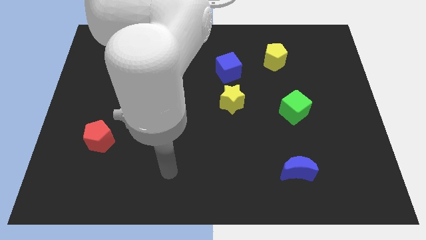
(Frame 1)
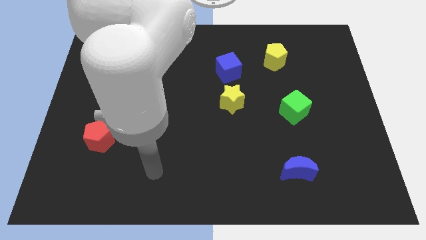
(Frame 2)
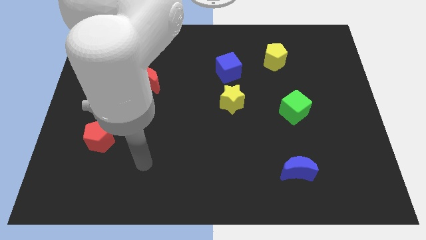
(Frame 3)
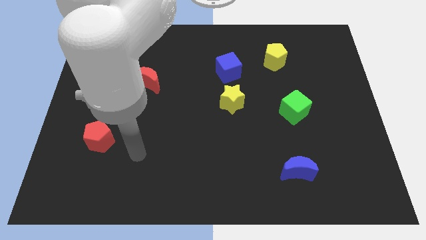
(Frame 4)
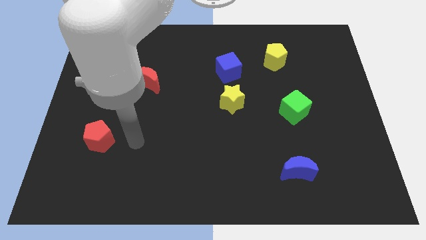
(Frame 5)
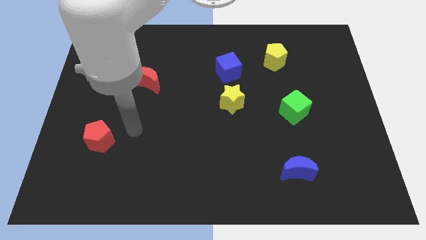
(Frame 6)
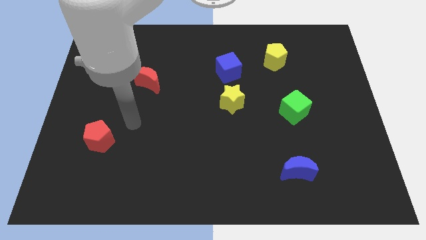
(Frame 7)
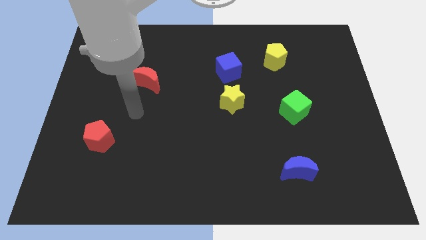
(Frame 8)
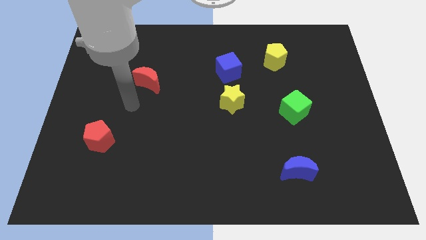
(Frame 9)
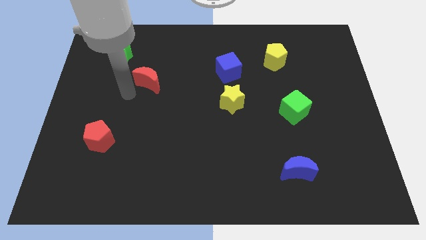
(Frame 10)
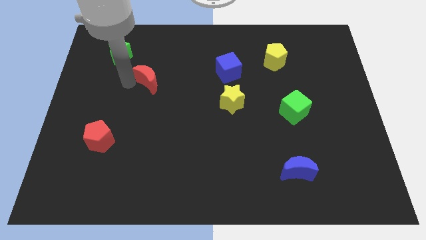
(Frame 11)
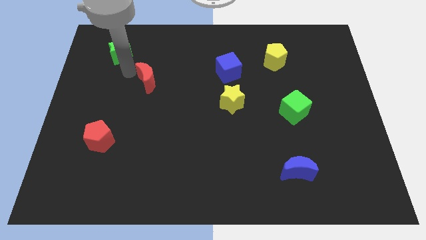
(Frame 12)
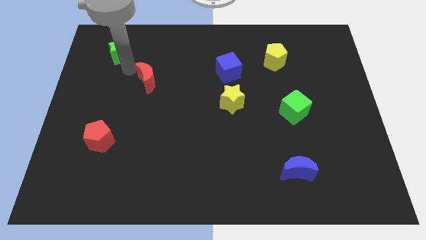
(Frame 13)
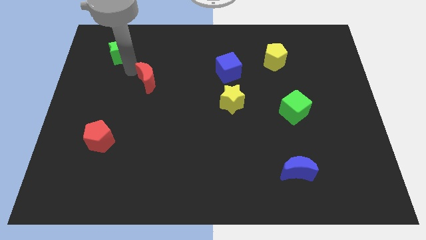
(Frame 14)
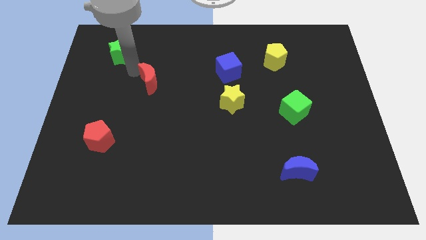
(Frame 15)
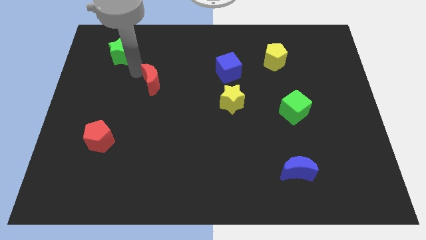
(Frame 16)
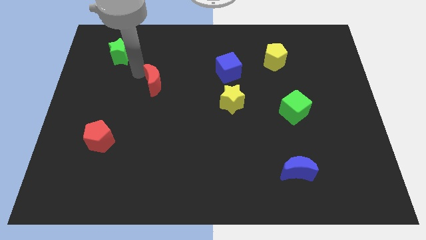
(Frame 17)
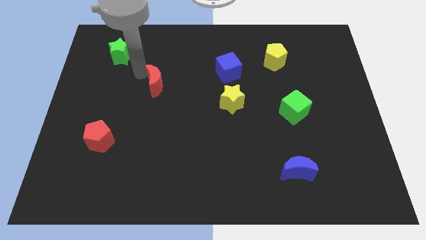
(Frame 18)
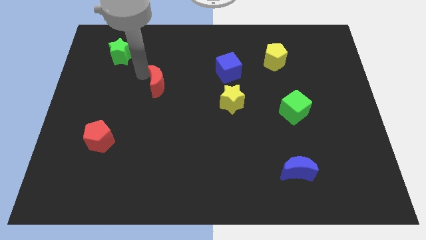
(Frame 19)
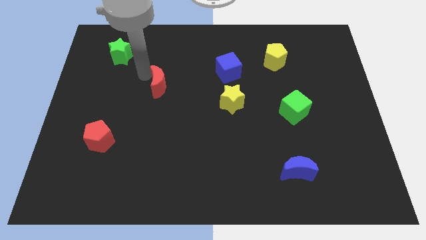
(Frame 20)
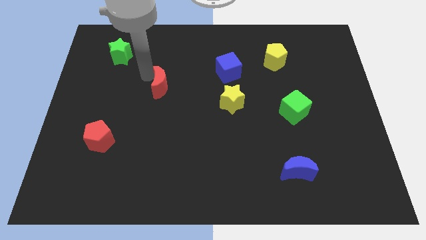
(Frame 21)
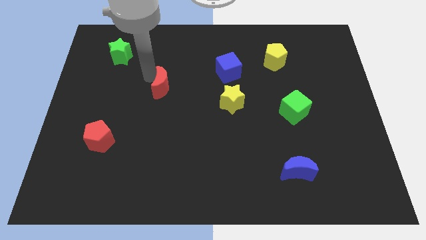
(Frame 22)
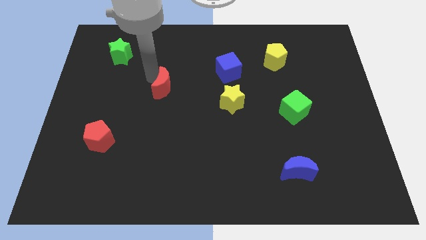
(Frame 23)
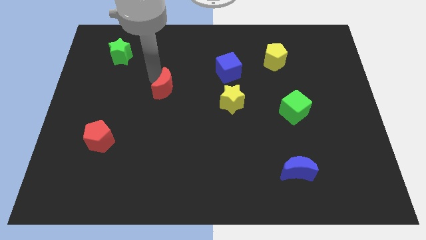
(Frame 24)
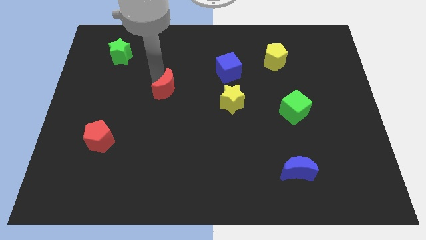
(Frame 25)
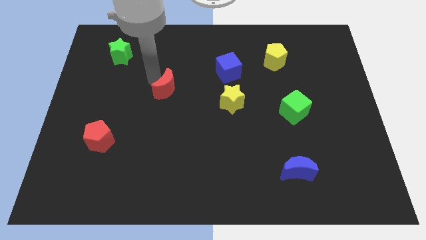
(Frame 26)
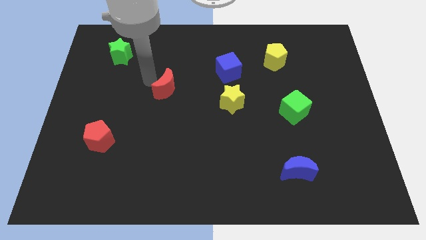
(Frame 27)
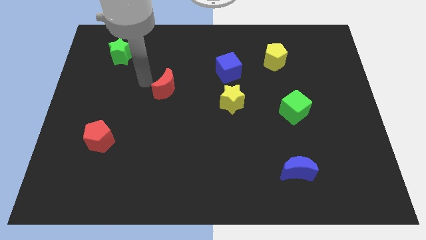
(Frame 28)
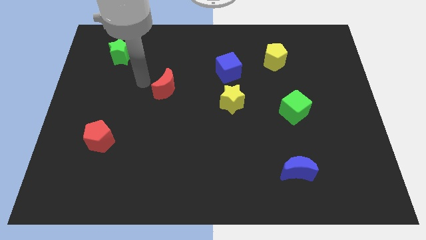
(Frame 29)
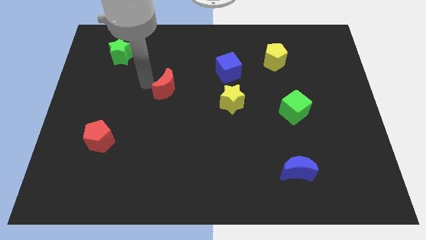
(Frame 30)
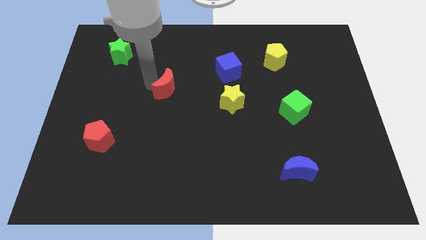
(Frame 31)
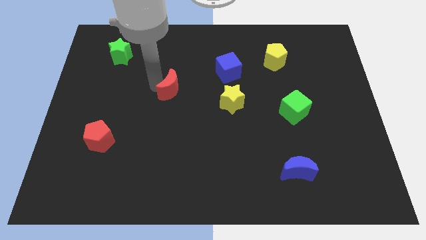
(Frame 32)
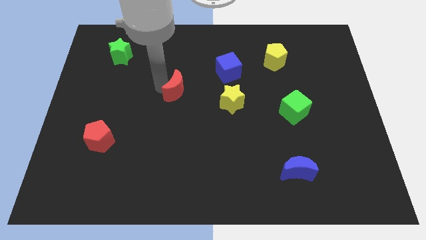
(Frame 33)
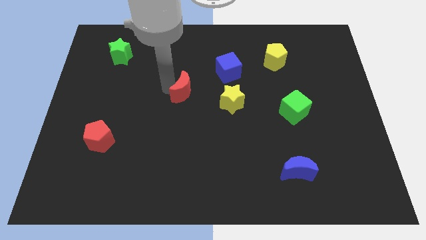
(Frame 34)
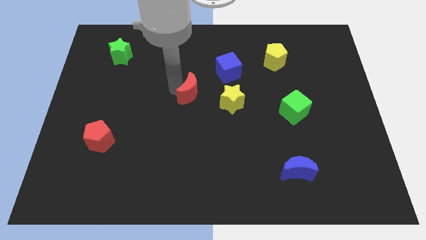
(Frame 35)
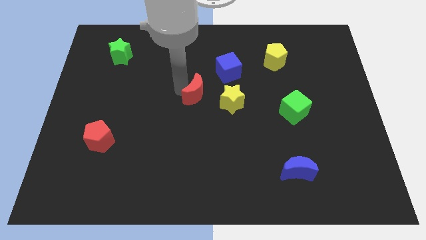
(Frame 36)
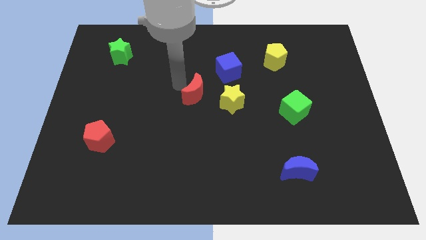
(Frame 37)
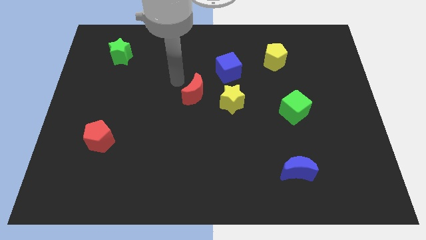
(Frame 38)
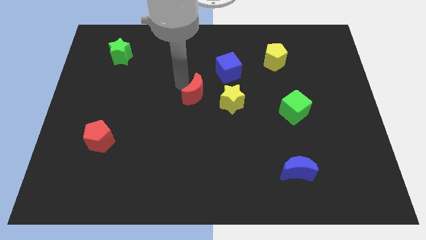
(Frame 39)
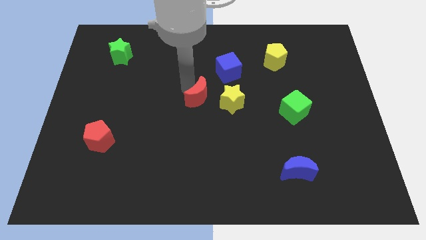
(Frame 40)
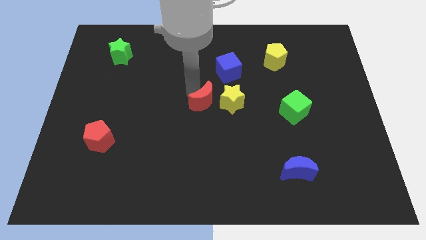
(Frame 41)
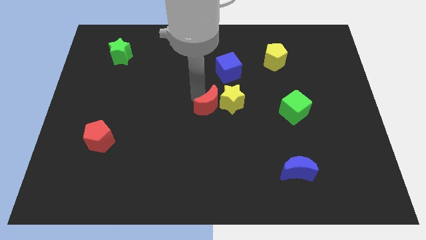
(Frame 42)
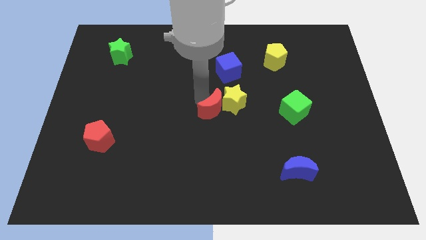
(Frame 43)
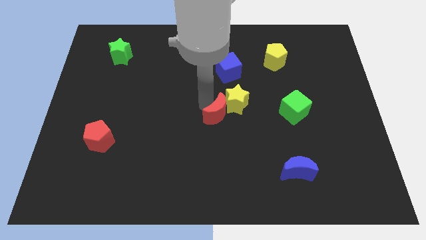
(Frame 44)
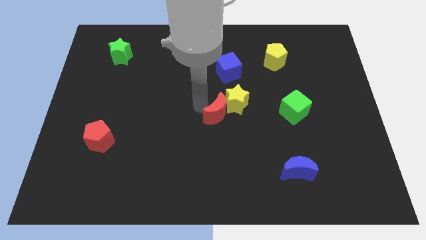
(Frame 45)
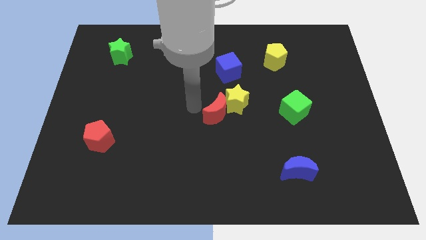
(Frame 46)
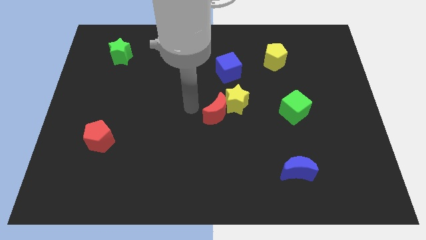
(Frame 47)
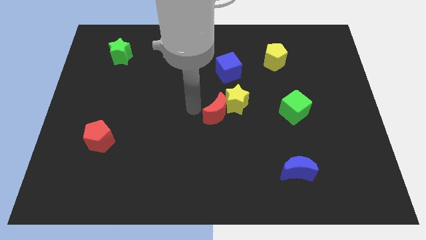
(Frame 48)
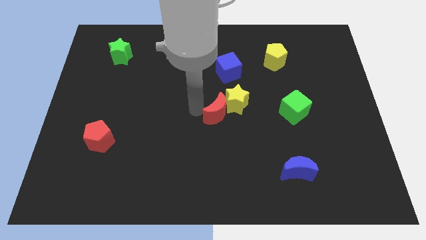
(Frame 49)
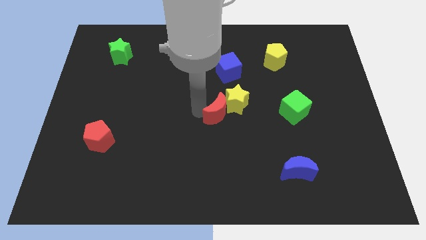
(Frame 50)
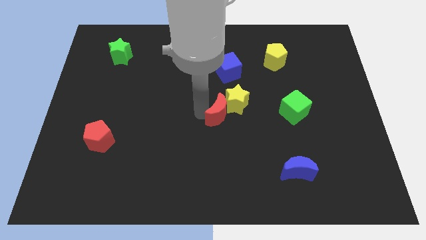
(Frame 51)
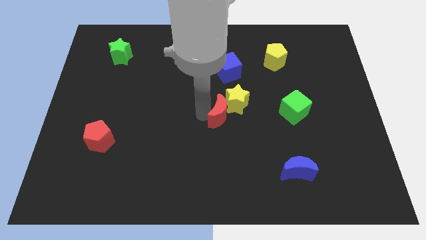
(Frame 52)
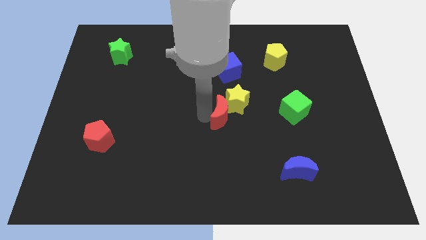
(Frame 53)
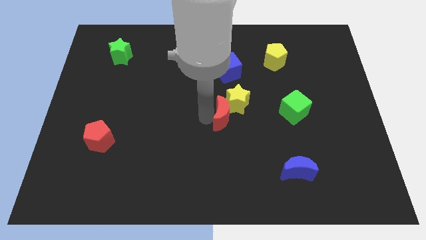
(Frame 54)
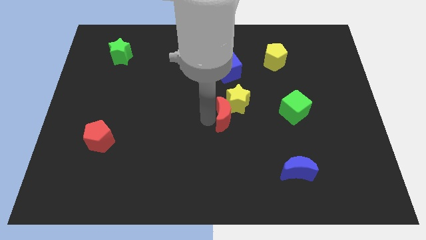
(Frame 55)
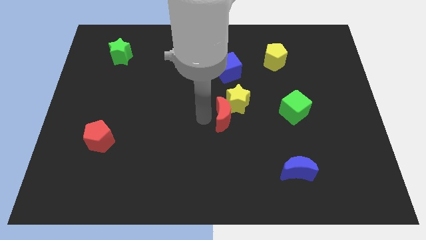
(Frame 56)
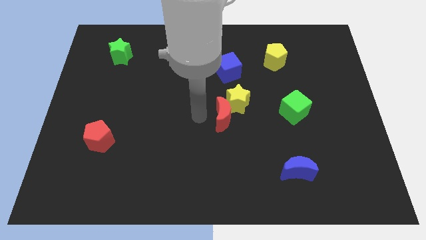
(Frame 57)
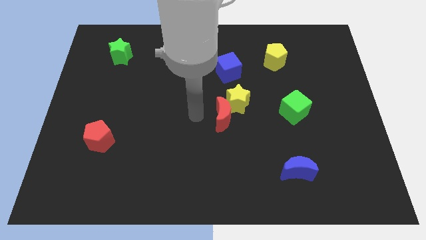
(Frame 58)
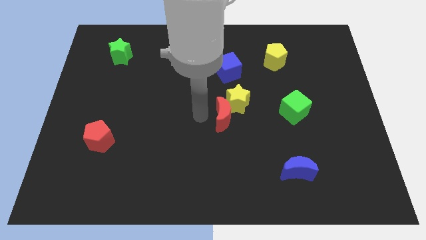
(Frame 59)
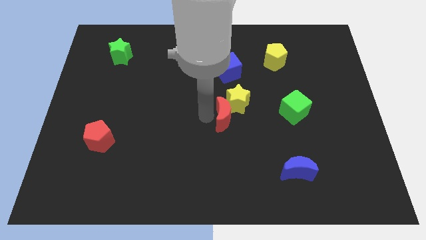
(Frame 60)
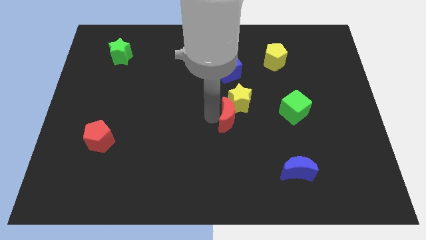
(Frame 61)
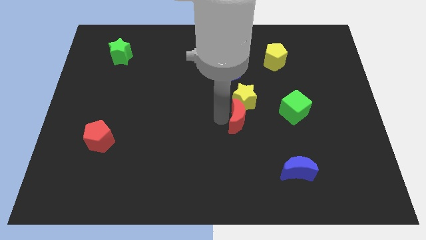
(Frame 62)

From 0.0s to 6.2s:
push the red moon to the bottom right of the yellow star

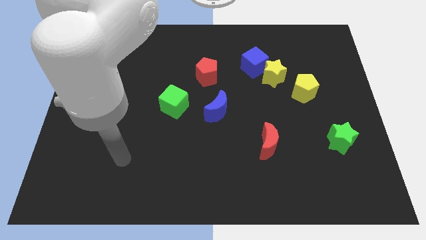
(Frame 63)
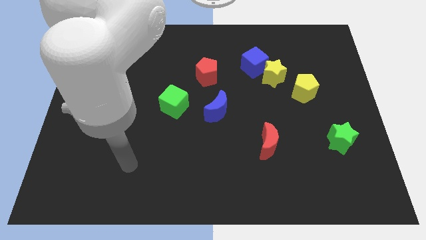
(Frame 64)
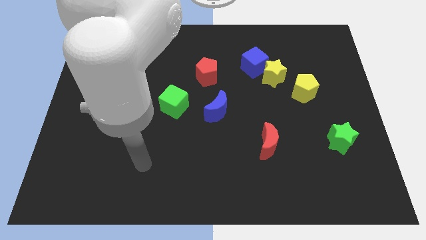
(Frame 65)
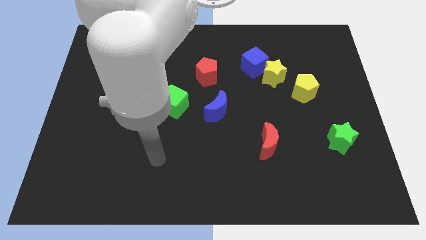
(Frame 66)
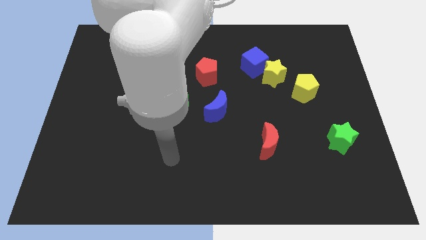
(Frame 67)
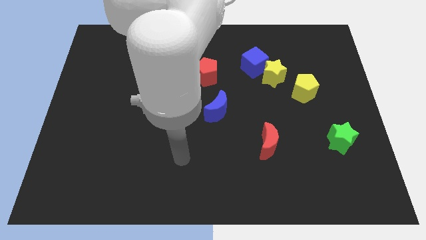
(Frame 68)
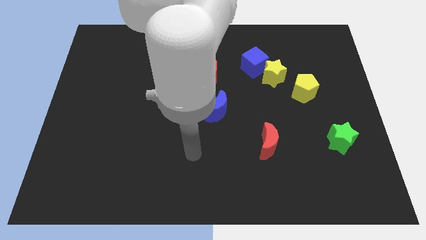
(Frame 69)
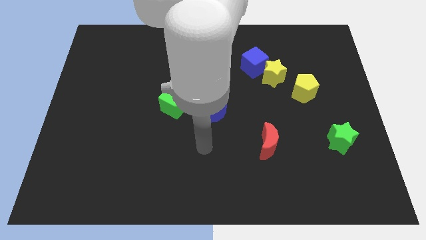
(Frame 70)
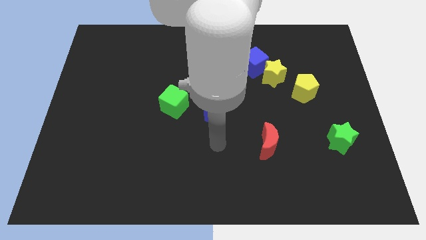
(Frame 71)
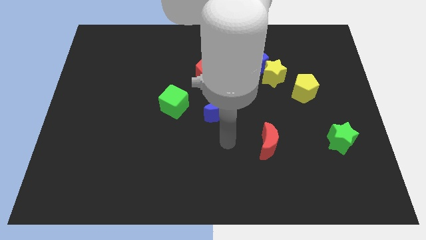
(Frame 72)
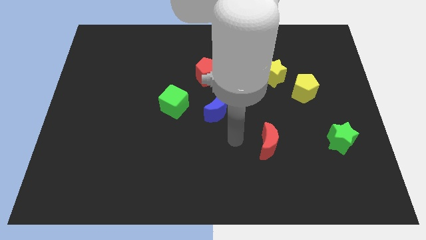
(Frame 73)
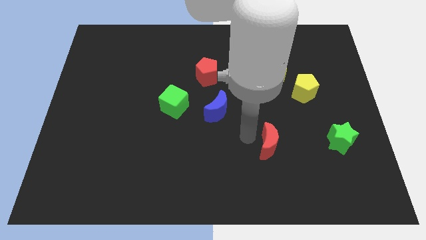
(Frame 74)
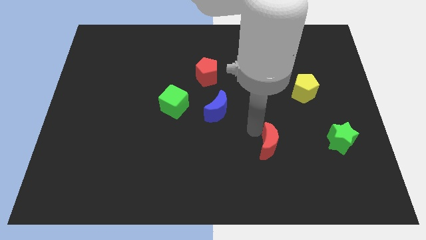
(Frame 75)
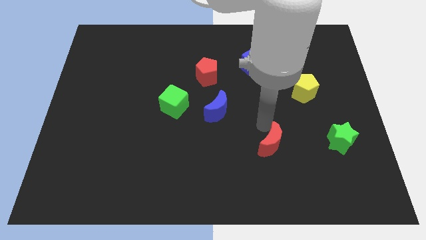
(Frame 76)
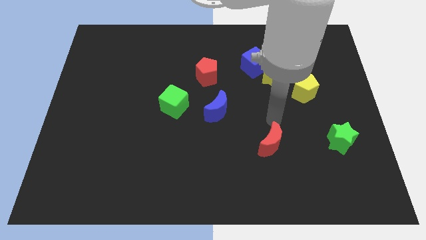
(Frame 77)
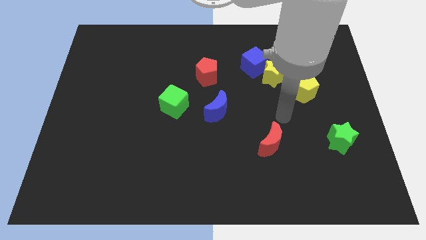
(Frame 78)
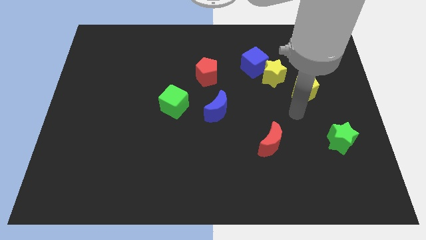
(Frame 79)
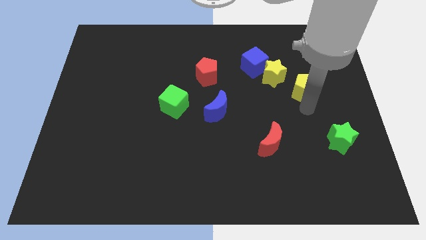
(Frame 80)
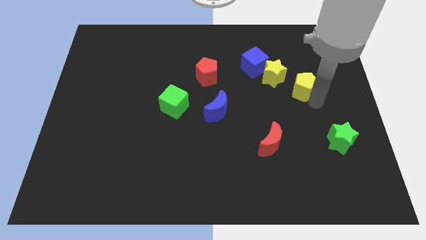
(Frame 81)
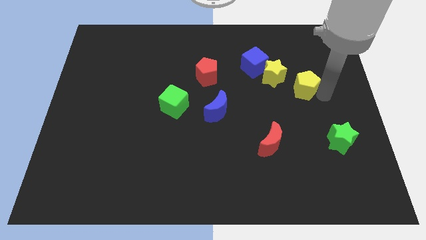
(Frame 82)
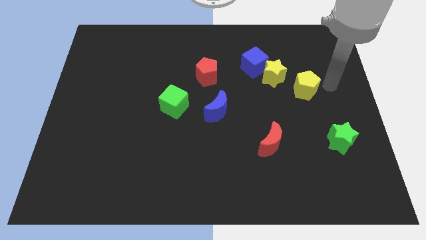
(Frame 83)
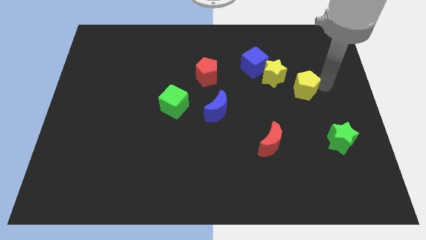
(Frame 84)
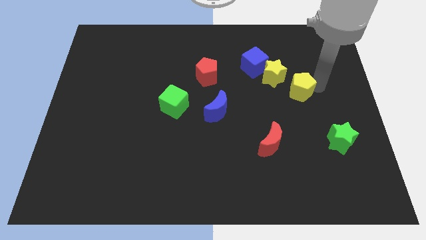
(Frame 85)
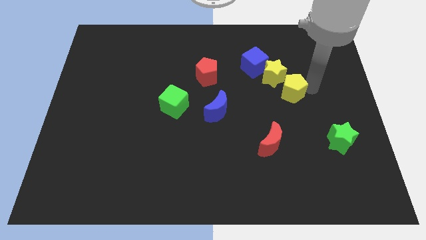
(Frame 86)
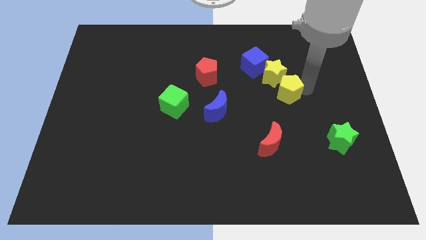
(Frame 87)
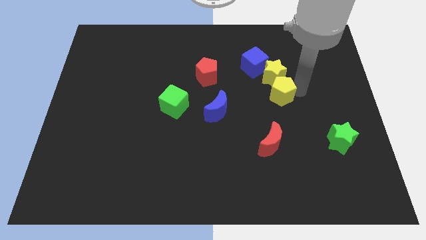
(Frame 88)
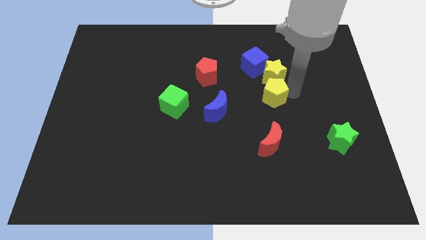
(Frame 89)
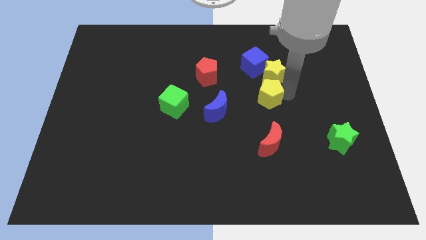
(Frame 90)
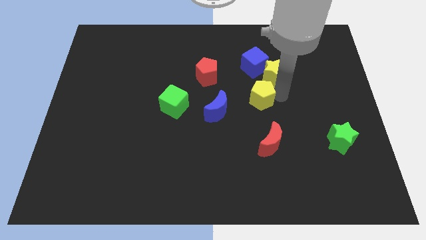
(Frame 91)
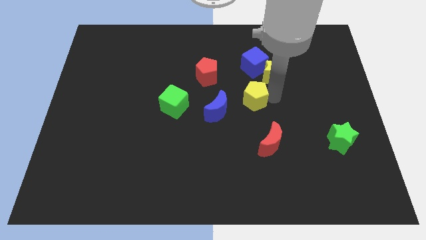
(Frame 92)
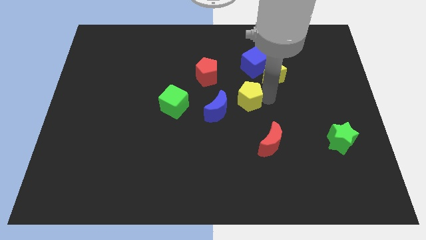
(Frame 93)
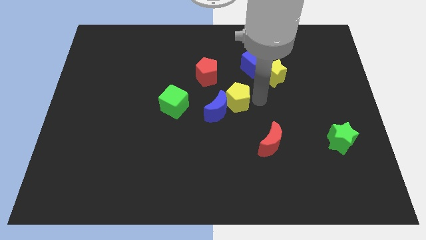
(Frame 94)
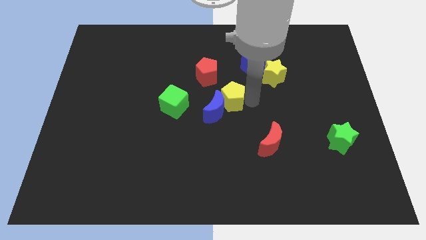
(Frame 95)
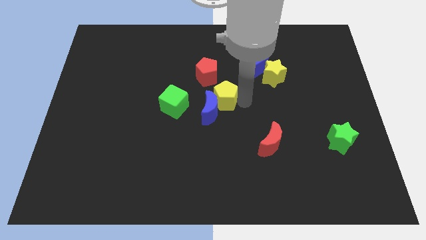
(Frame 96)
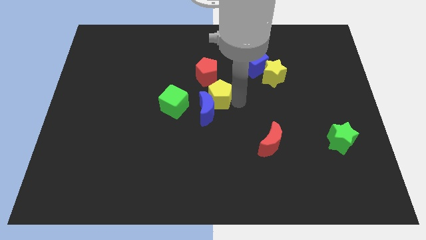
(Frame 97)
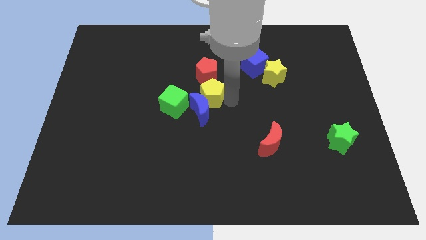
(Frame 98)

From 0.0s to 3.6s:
put the yellow pentagon to the top right of the green cube
